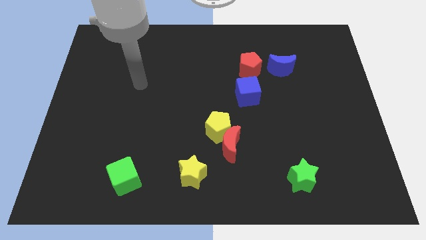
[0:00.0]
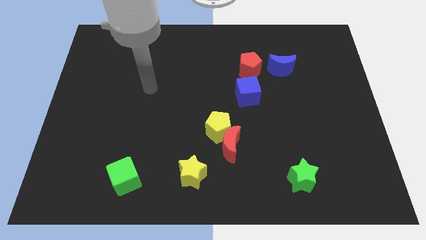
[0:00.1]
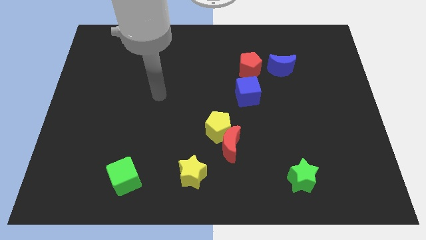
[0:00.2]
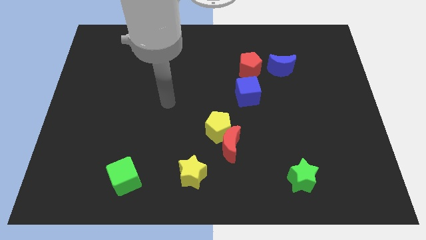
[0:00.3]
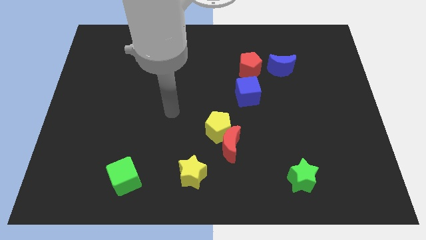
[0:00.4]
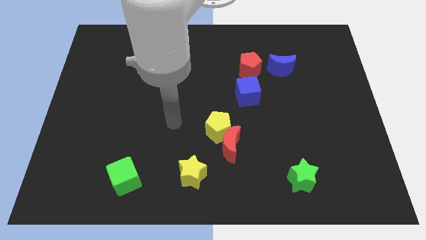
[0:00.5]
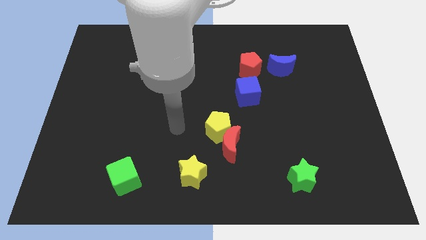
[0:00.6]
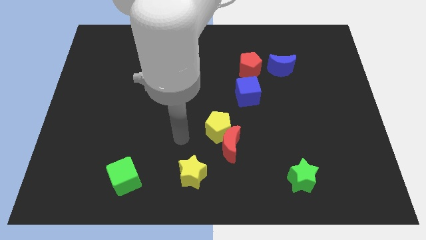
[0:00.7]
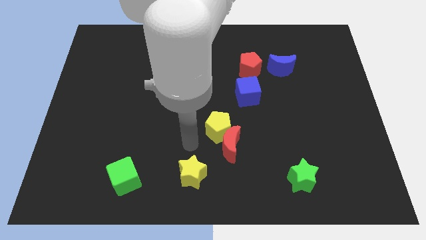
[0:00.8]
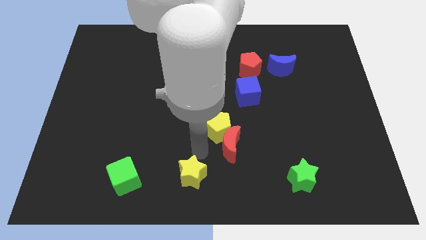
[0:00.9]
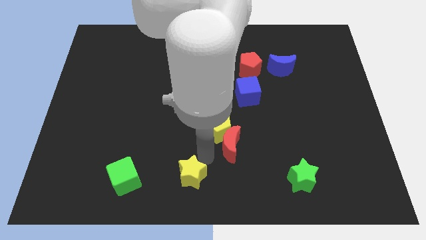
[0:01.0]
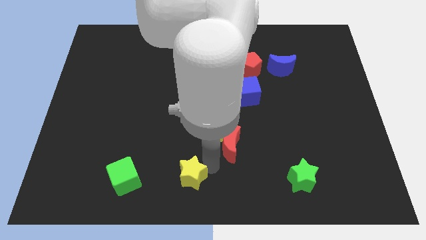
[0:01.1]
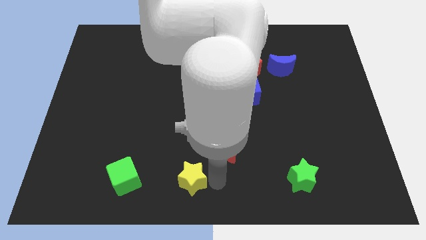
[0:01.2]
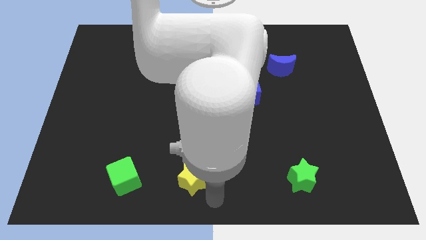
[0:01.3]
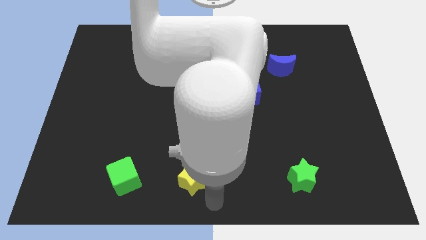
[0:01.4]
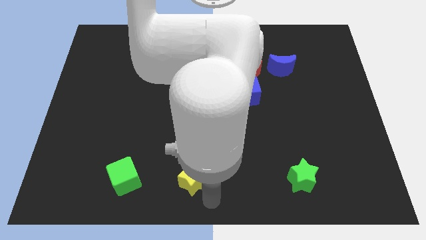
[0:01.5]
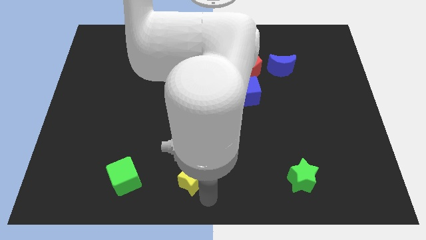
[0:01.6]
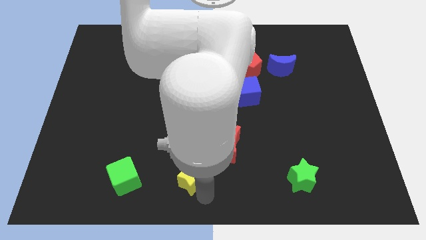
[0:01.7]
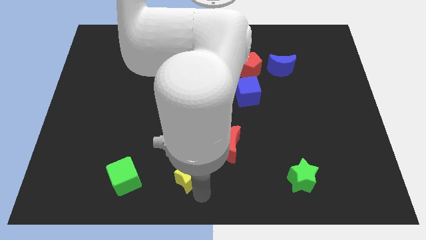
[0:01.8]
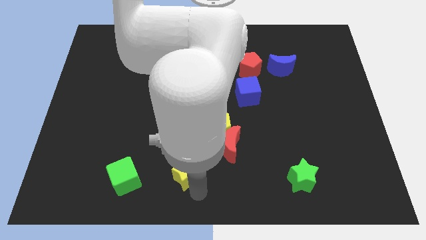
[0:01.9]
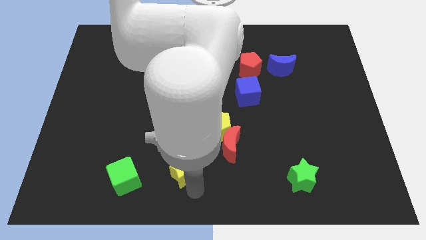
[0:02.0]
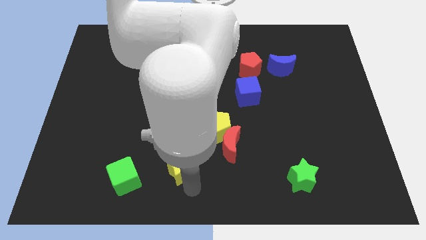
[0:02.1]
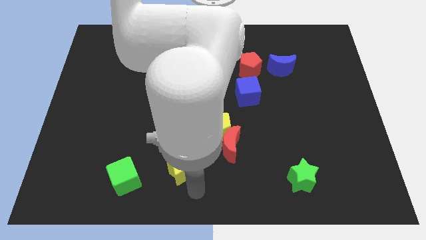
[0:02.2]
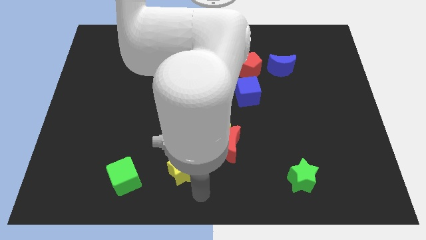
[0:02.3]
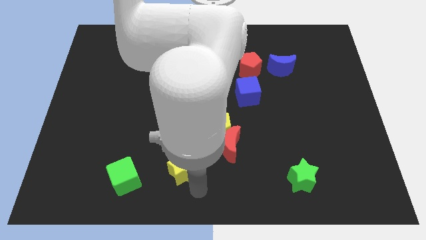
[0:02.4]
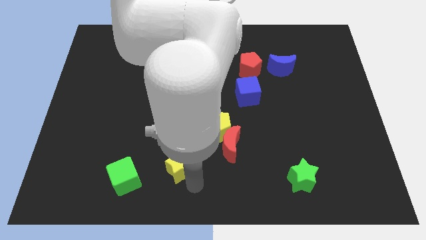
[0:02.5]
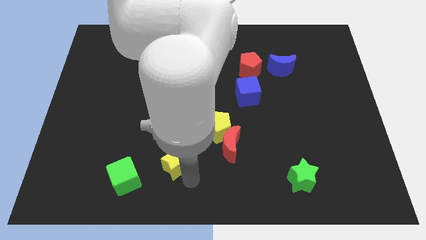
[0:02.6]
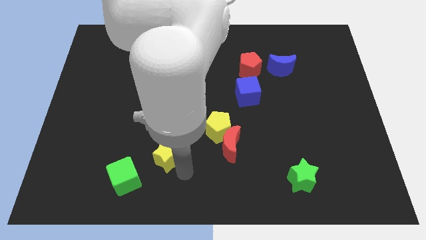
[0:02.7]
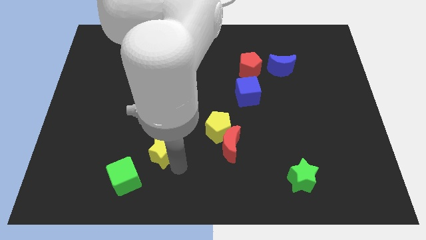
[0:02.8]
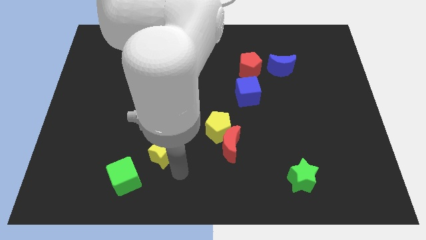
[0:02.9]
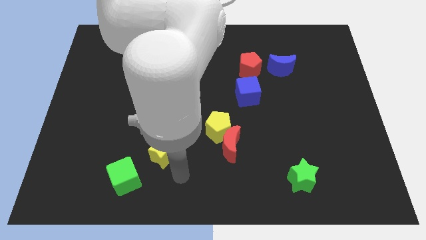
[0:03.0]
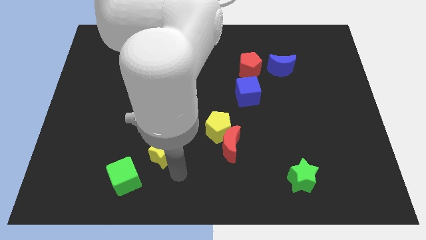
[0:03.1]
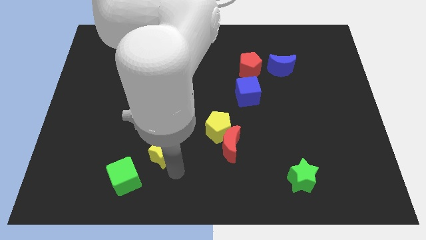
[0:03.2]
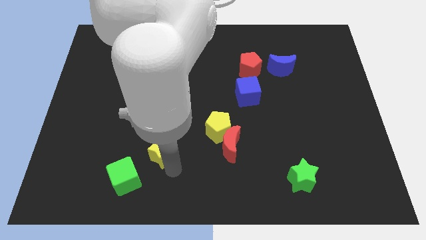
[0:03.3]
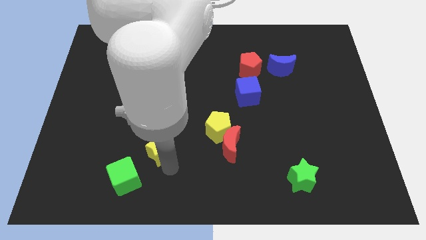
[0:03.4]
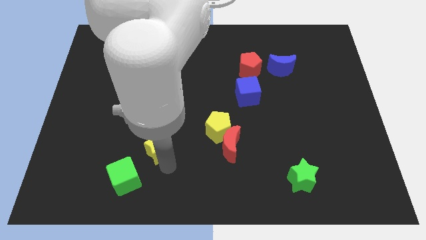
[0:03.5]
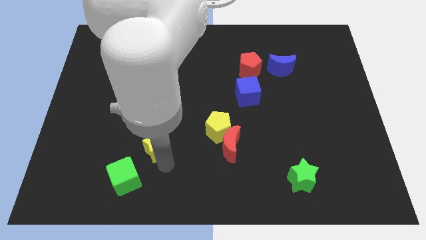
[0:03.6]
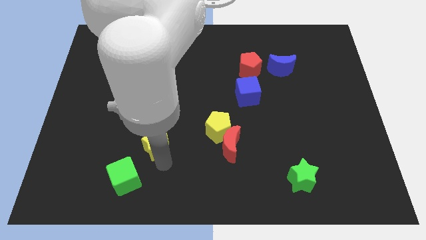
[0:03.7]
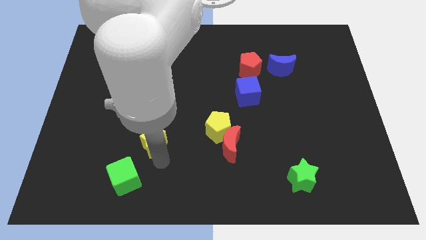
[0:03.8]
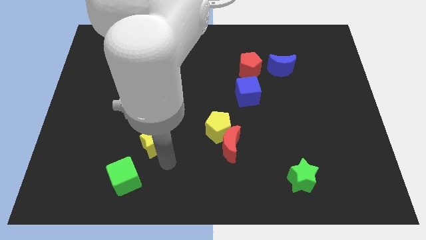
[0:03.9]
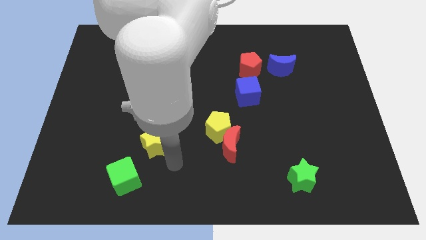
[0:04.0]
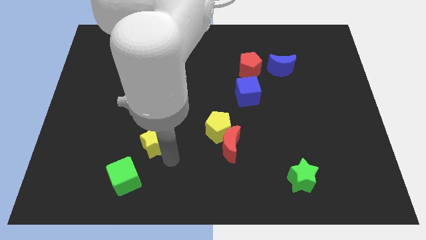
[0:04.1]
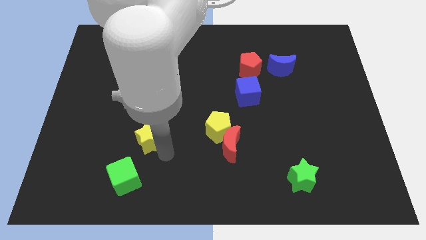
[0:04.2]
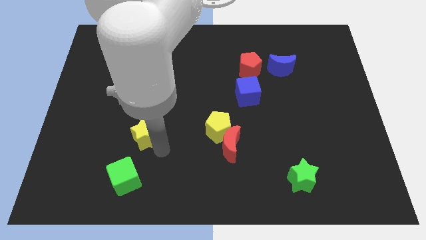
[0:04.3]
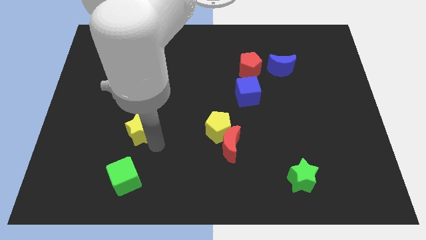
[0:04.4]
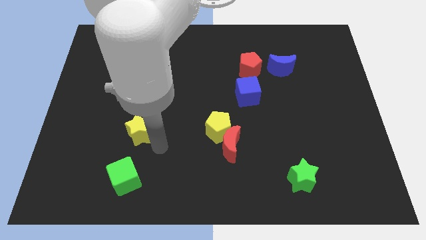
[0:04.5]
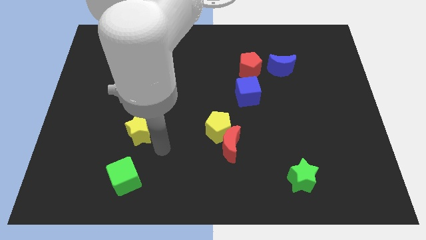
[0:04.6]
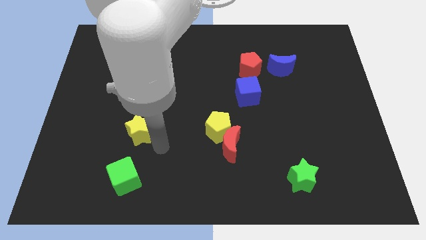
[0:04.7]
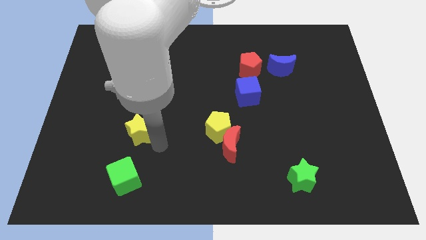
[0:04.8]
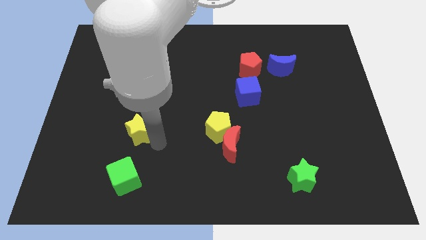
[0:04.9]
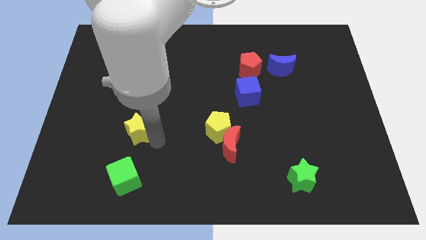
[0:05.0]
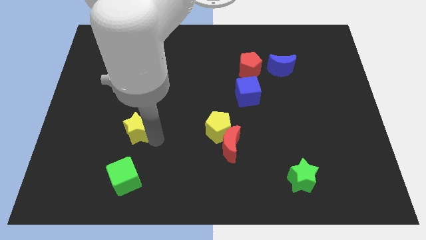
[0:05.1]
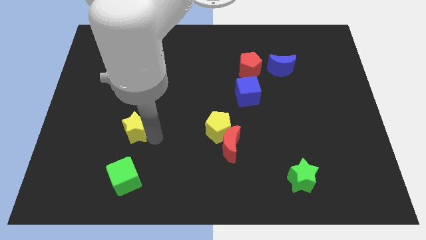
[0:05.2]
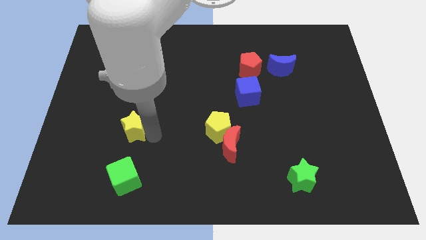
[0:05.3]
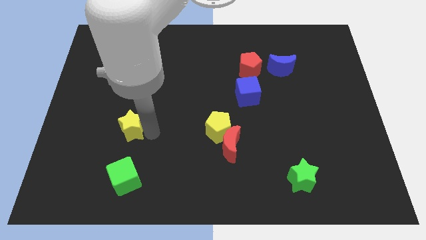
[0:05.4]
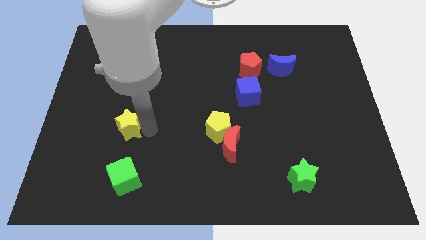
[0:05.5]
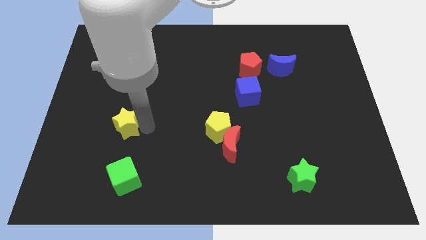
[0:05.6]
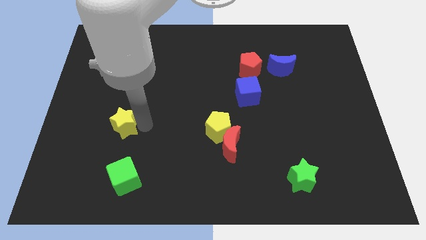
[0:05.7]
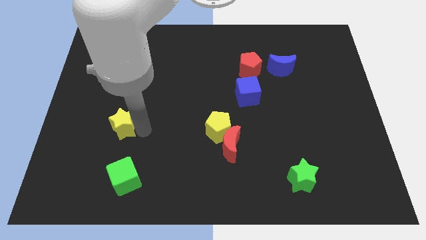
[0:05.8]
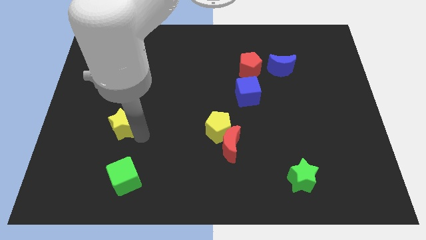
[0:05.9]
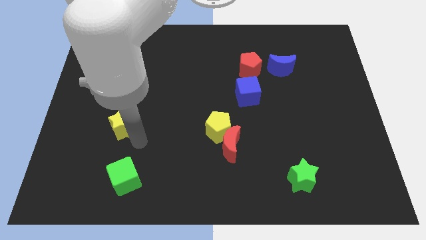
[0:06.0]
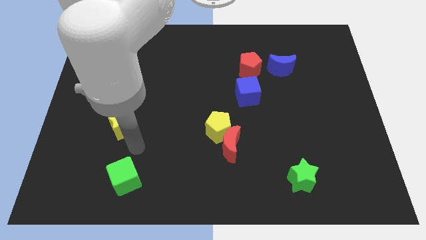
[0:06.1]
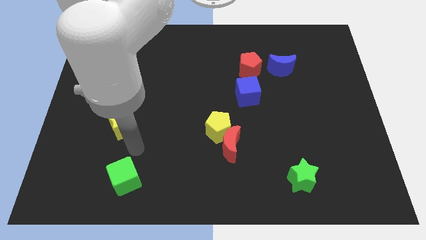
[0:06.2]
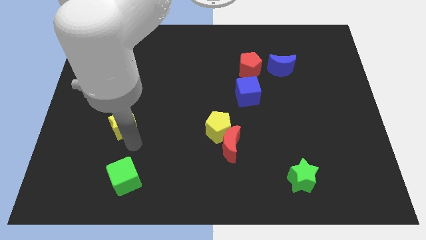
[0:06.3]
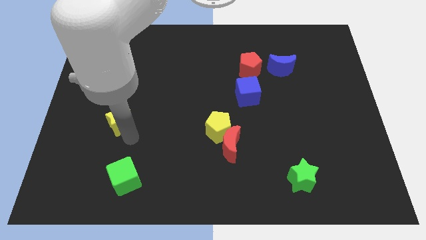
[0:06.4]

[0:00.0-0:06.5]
slide the yellow star up and to the left

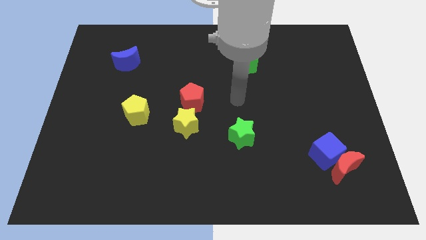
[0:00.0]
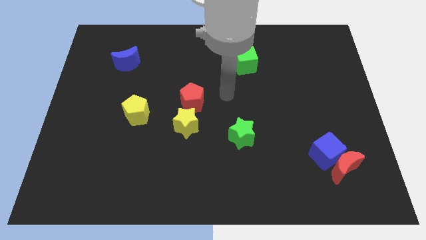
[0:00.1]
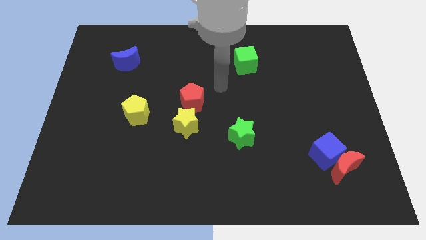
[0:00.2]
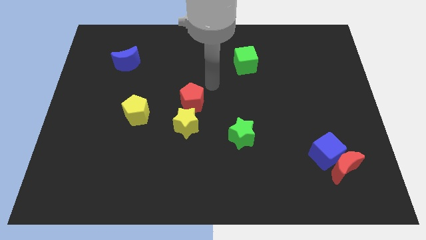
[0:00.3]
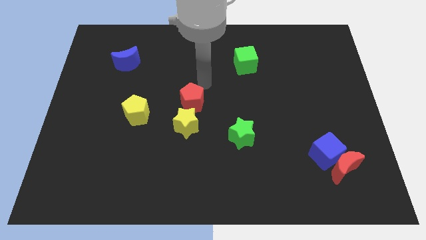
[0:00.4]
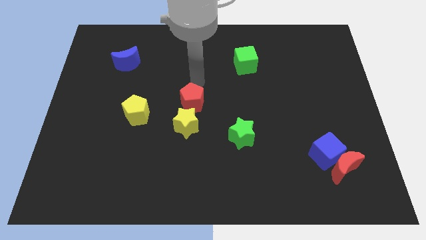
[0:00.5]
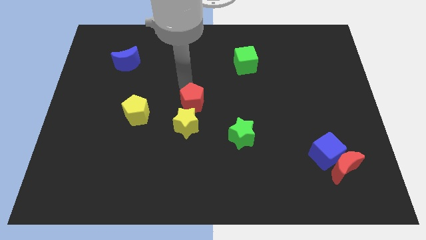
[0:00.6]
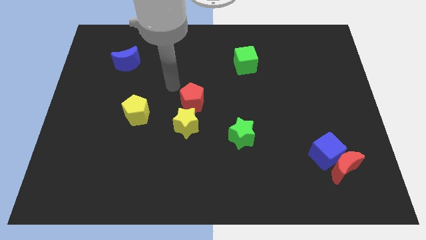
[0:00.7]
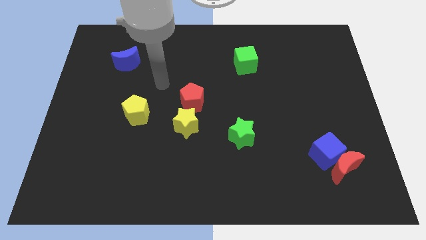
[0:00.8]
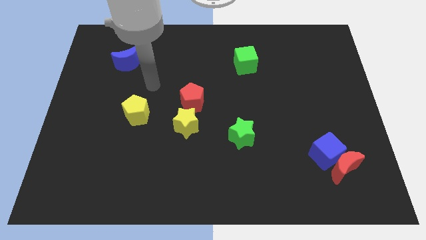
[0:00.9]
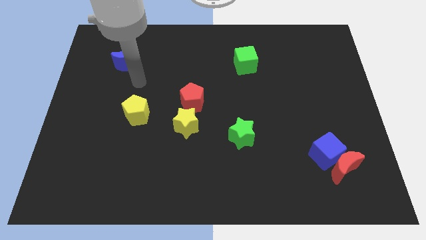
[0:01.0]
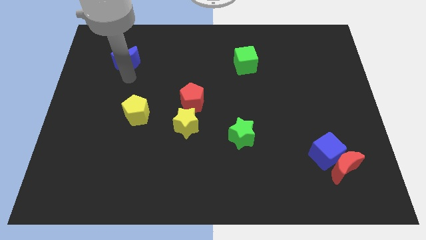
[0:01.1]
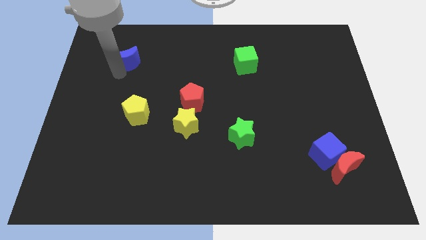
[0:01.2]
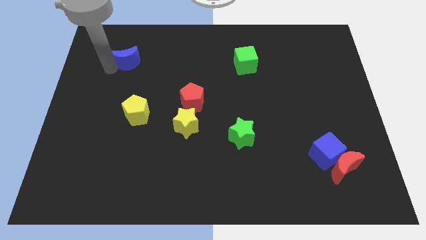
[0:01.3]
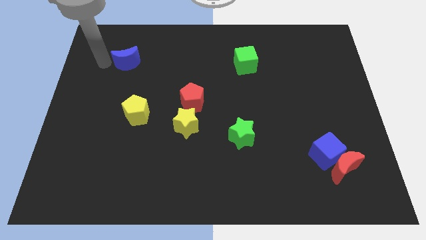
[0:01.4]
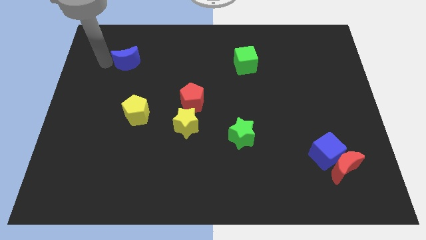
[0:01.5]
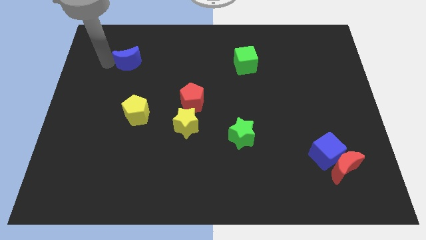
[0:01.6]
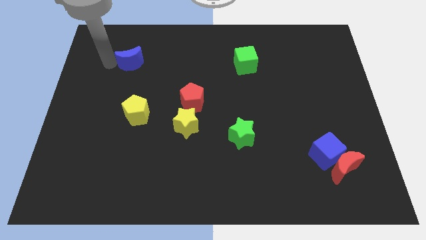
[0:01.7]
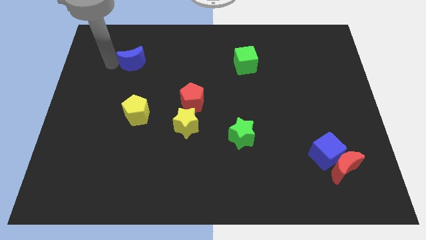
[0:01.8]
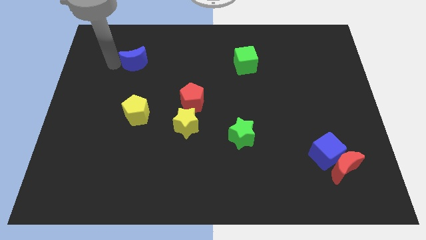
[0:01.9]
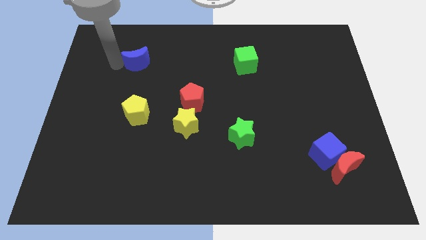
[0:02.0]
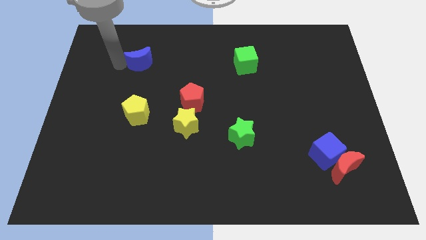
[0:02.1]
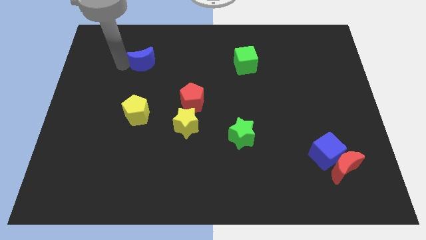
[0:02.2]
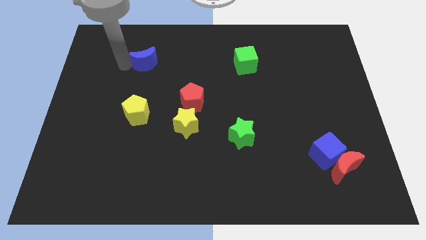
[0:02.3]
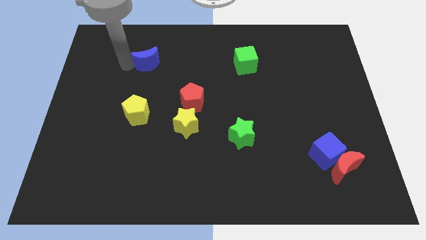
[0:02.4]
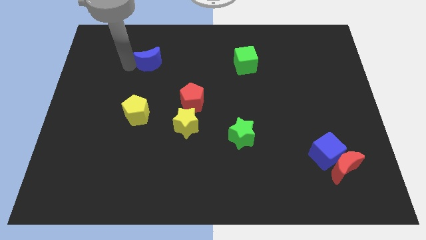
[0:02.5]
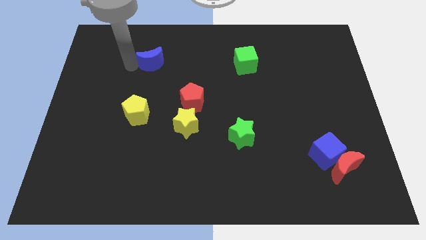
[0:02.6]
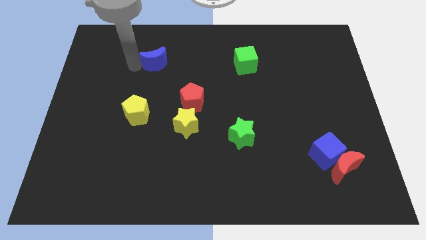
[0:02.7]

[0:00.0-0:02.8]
slightly slide the blue moon to the right
